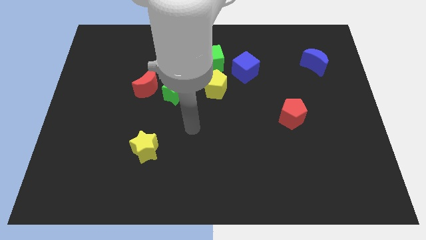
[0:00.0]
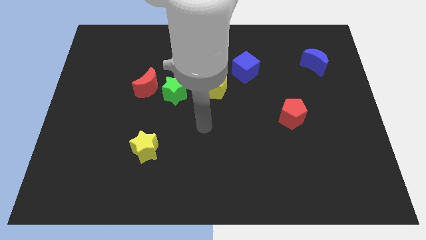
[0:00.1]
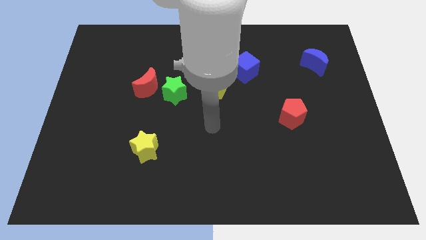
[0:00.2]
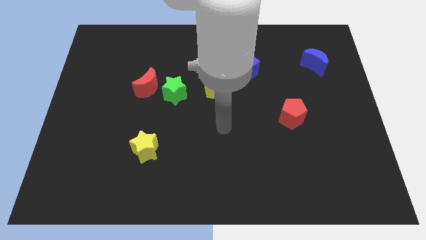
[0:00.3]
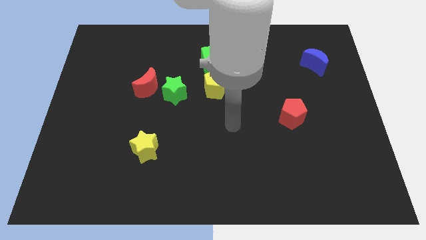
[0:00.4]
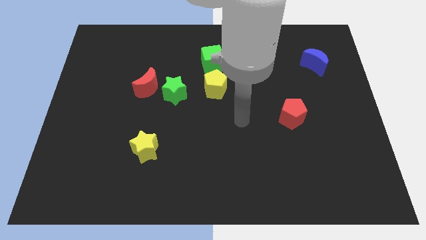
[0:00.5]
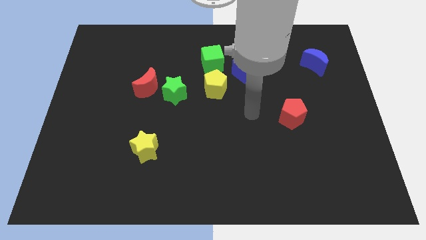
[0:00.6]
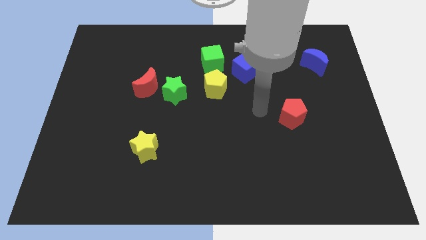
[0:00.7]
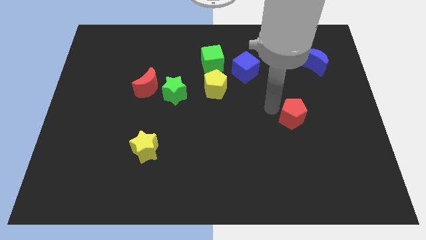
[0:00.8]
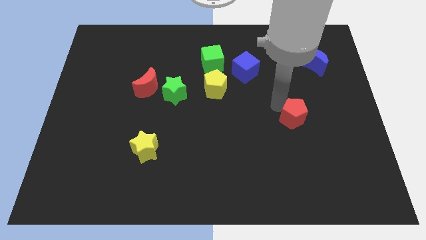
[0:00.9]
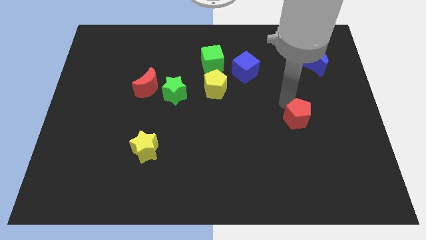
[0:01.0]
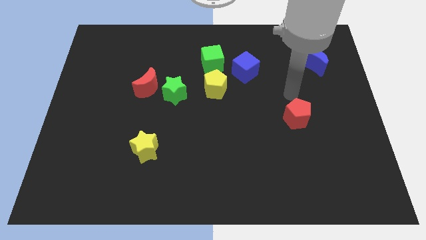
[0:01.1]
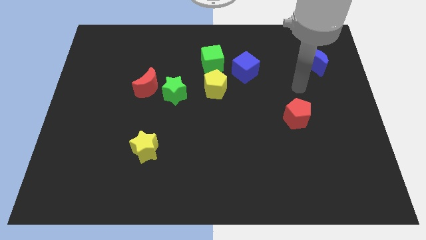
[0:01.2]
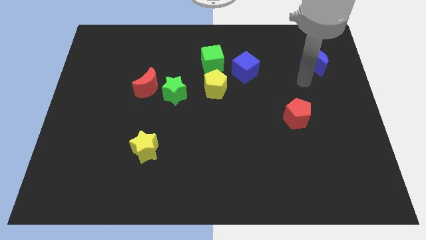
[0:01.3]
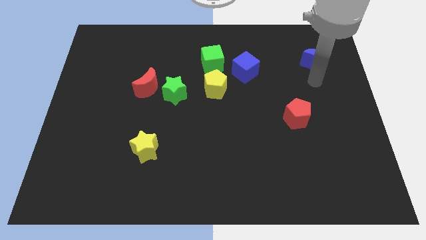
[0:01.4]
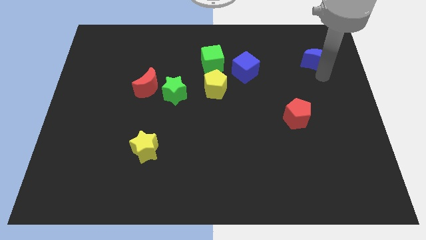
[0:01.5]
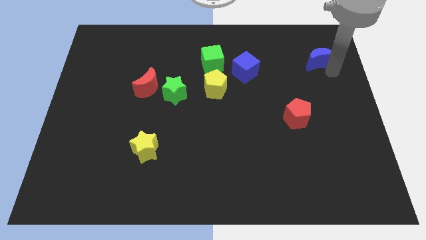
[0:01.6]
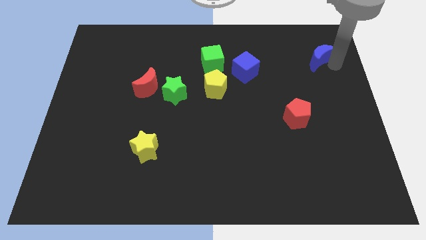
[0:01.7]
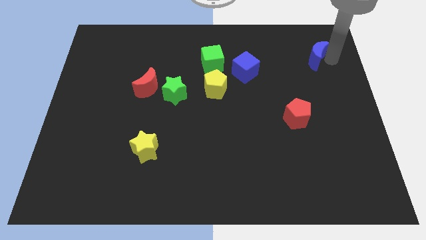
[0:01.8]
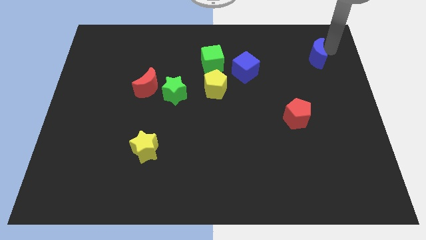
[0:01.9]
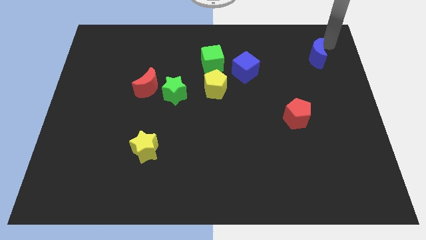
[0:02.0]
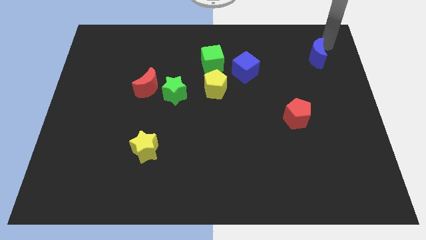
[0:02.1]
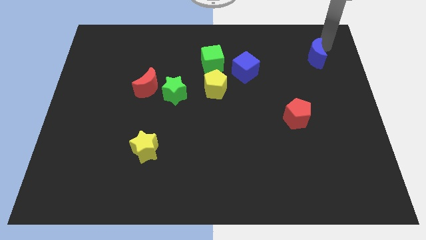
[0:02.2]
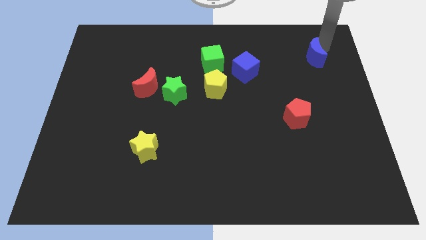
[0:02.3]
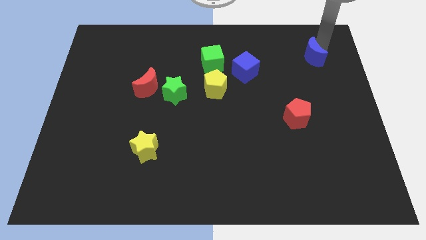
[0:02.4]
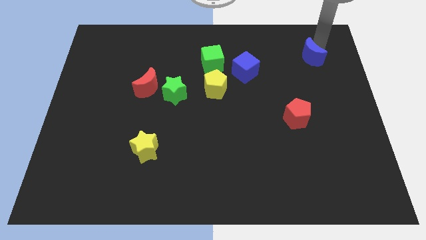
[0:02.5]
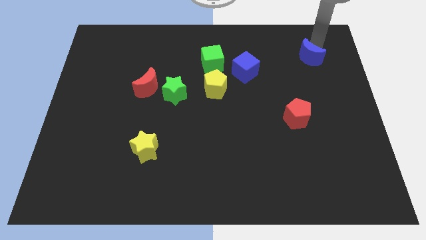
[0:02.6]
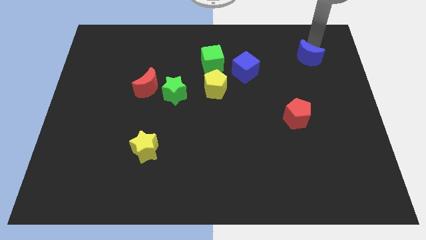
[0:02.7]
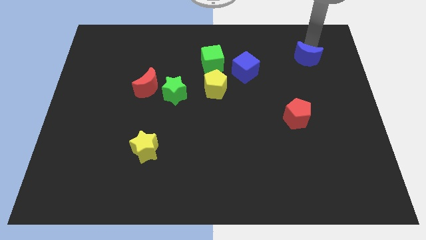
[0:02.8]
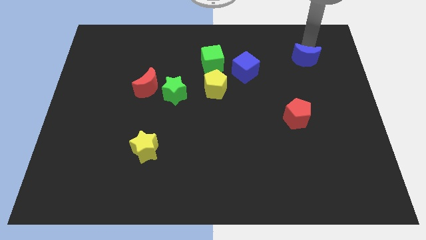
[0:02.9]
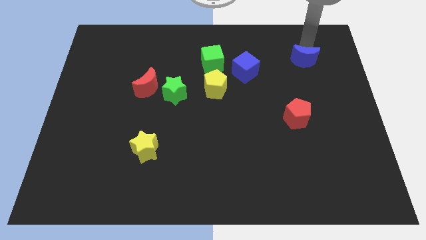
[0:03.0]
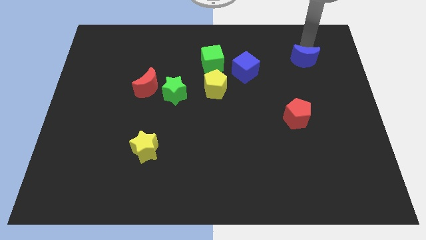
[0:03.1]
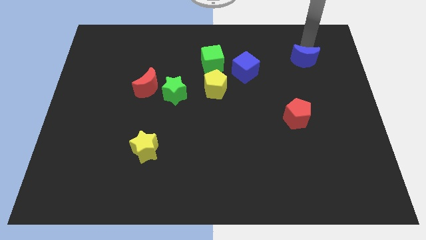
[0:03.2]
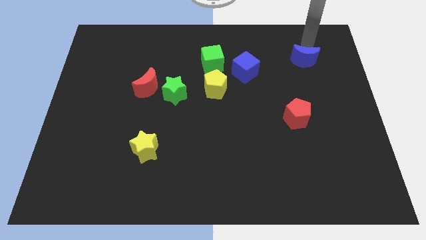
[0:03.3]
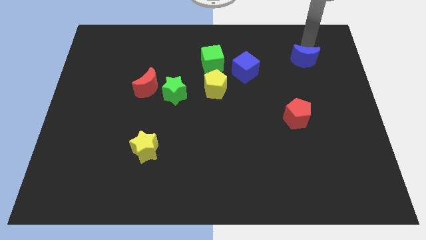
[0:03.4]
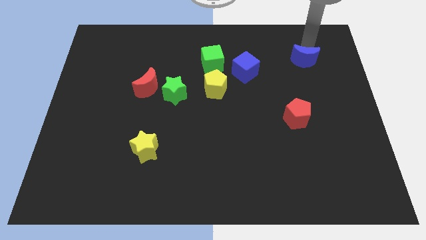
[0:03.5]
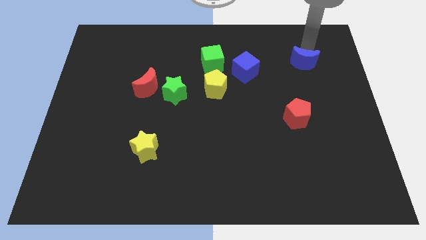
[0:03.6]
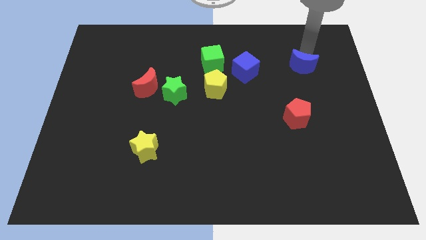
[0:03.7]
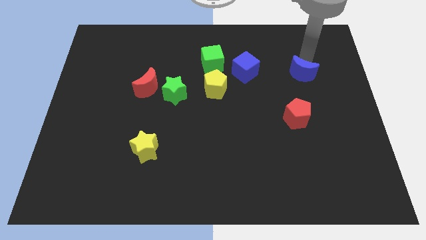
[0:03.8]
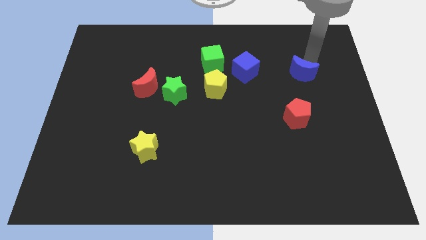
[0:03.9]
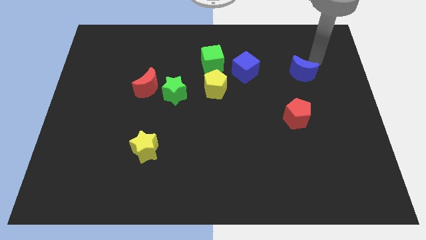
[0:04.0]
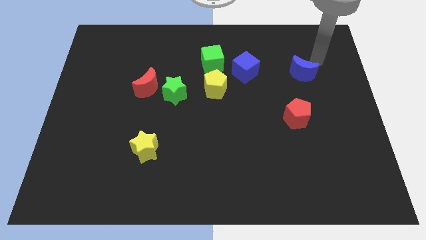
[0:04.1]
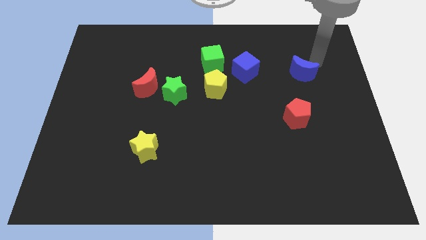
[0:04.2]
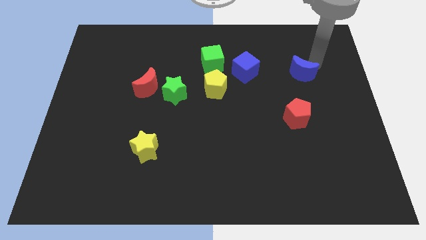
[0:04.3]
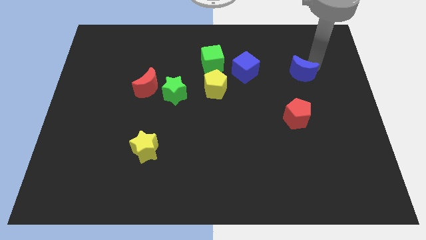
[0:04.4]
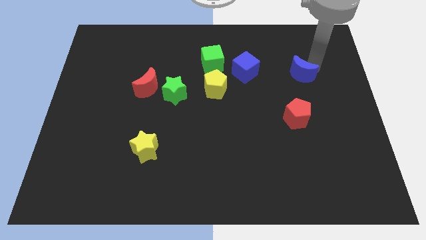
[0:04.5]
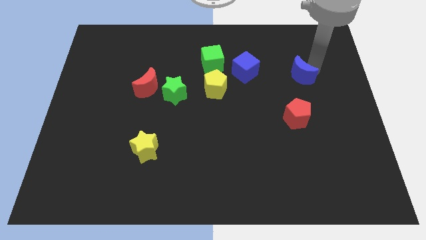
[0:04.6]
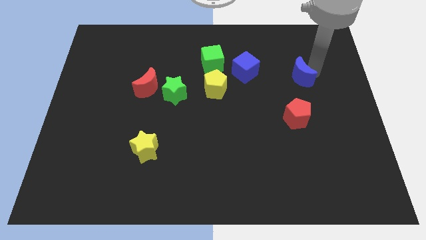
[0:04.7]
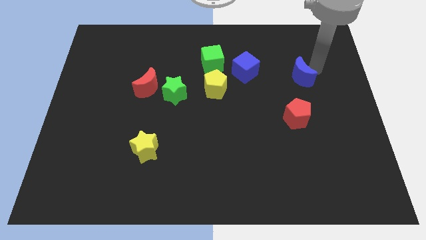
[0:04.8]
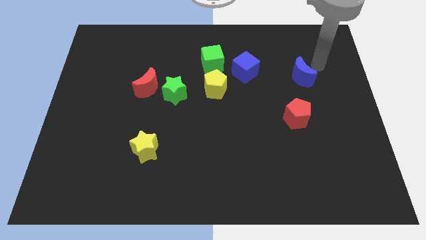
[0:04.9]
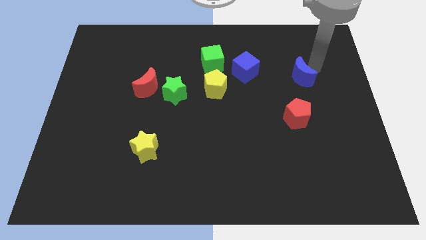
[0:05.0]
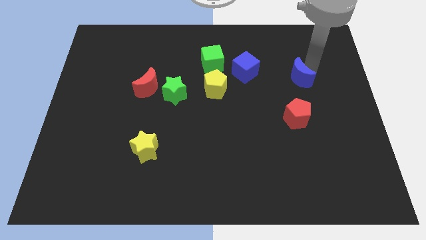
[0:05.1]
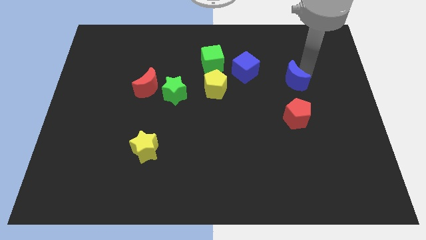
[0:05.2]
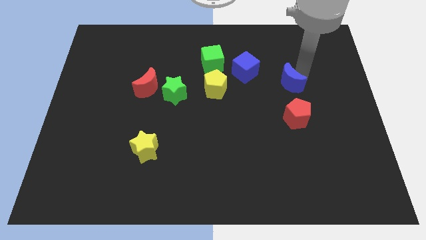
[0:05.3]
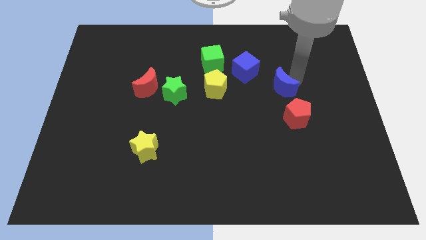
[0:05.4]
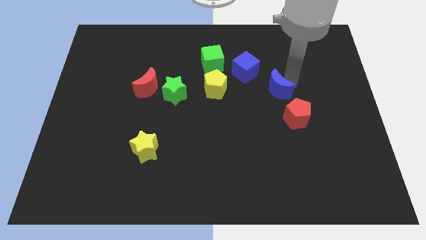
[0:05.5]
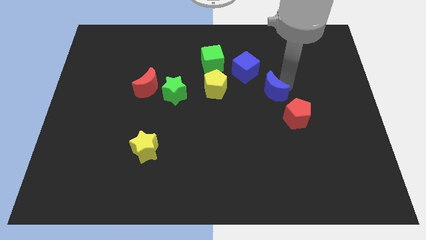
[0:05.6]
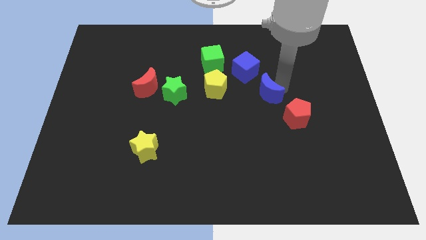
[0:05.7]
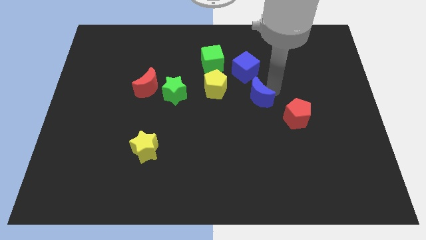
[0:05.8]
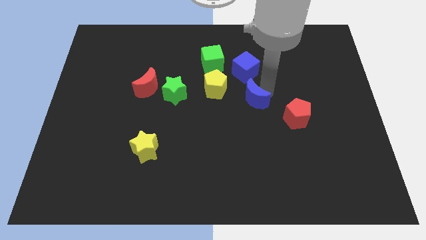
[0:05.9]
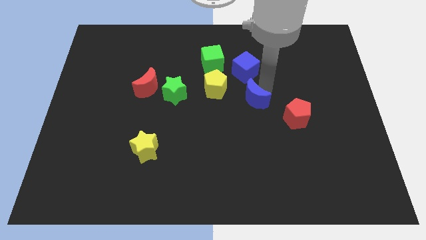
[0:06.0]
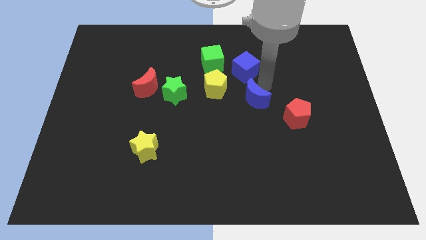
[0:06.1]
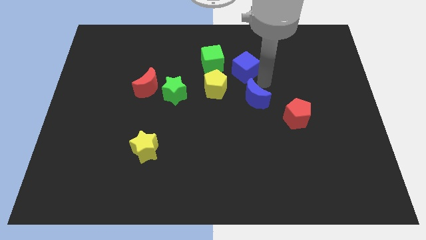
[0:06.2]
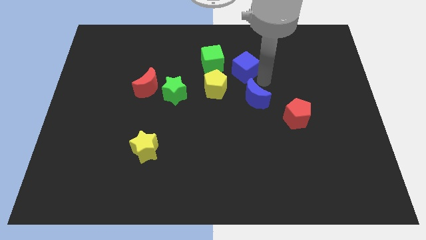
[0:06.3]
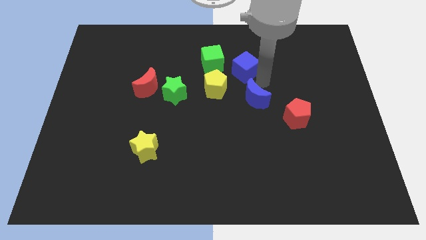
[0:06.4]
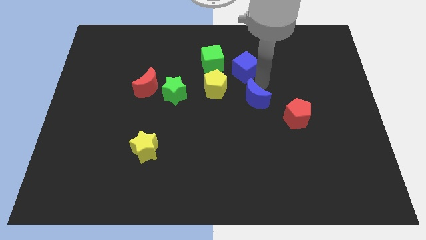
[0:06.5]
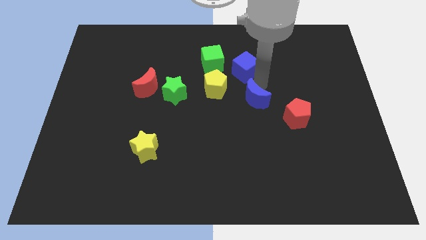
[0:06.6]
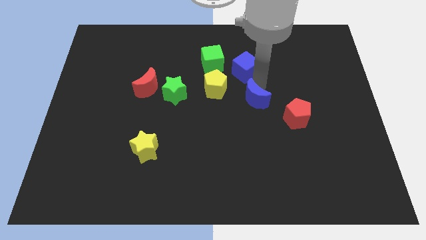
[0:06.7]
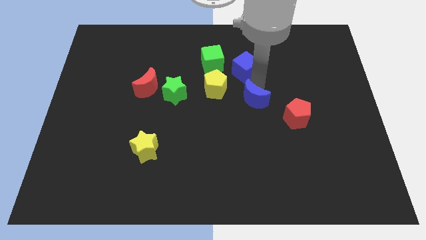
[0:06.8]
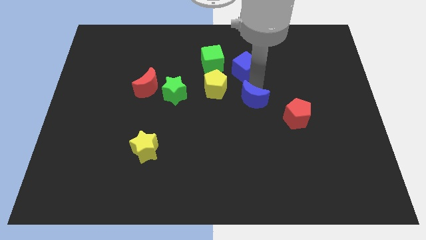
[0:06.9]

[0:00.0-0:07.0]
push the blue moon downwards and to the left

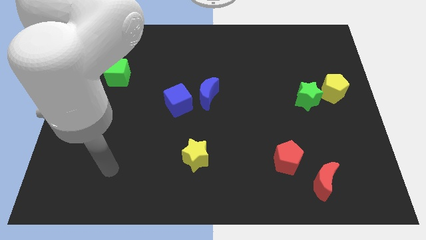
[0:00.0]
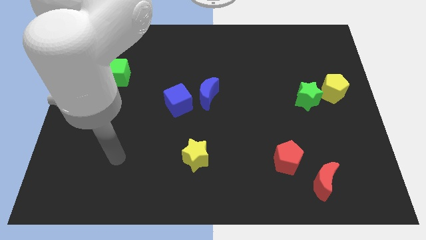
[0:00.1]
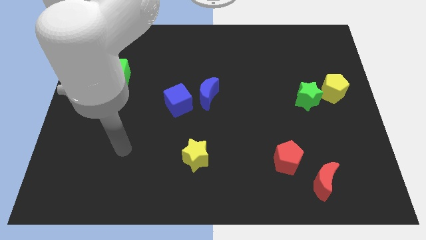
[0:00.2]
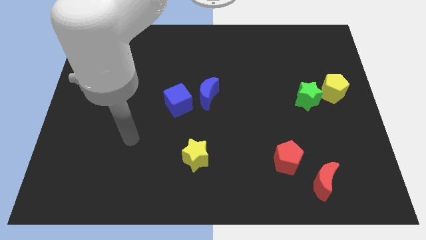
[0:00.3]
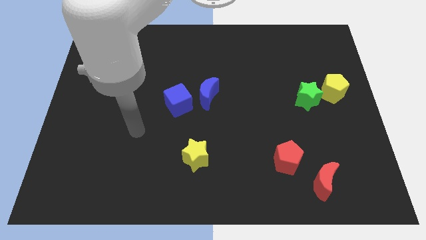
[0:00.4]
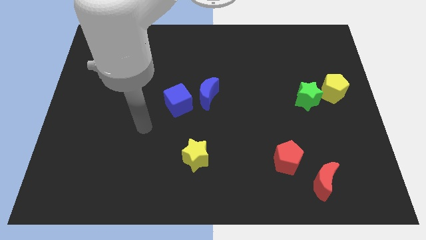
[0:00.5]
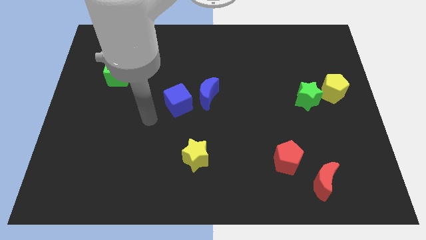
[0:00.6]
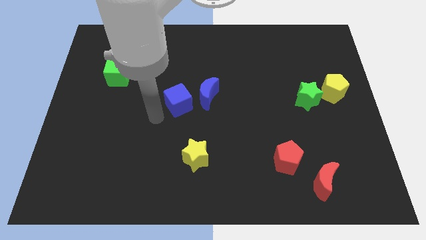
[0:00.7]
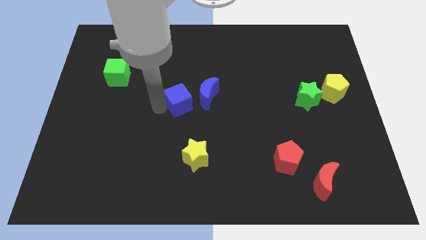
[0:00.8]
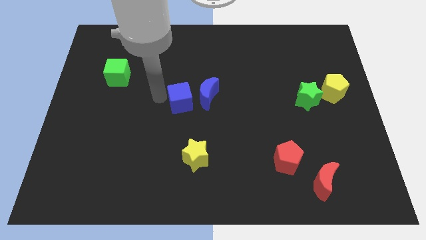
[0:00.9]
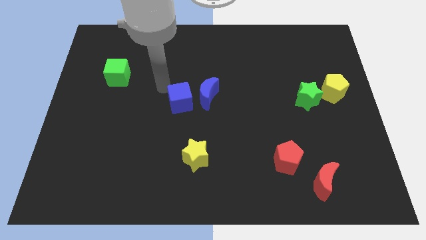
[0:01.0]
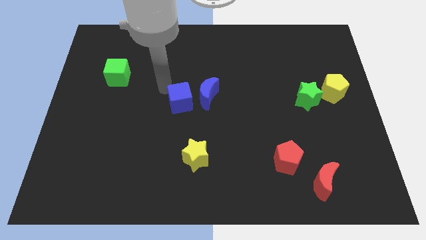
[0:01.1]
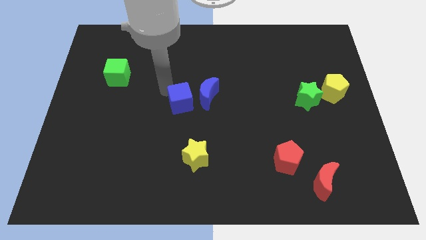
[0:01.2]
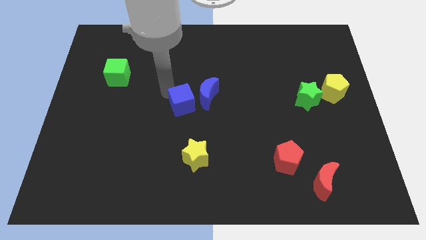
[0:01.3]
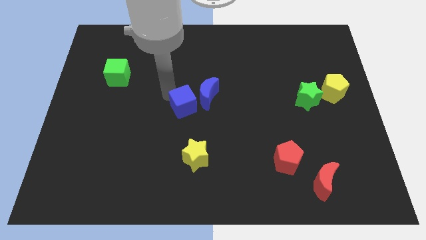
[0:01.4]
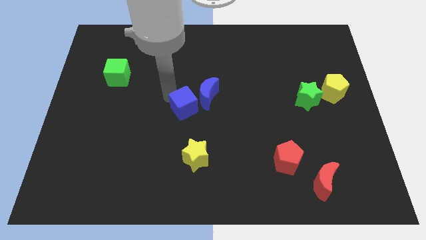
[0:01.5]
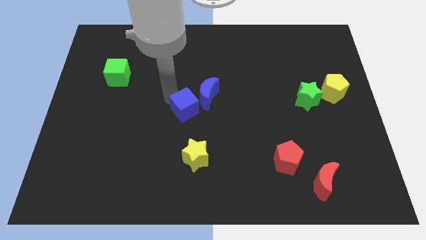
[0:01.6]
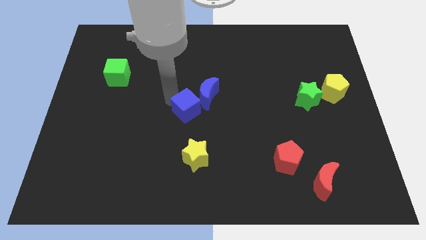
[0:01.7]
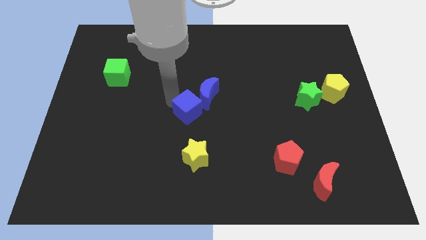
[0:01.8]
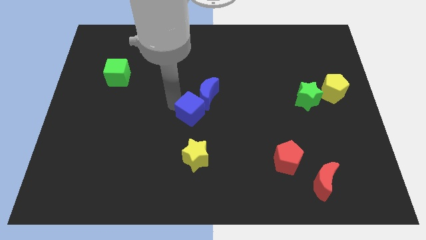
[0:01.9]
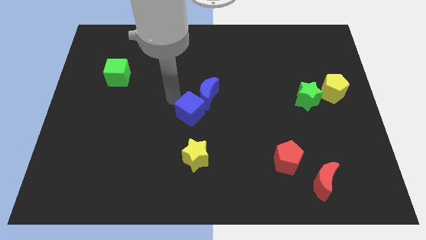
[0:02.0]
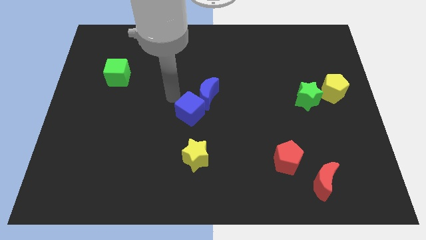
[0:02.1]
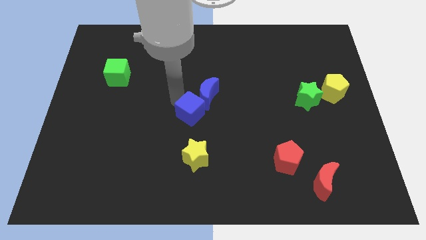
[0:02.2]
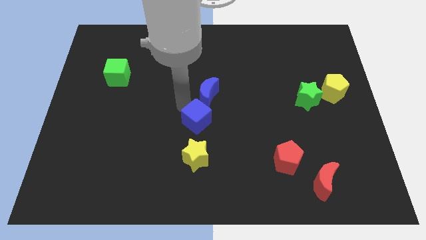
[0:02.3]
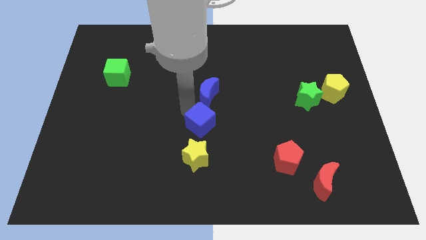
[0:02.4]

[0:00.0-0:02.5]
slide the blue cube a little diagonally down and right
